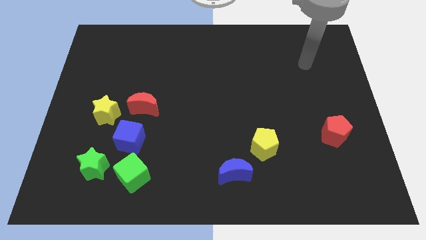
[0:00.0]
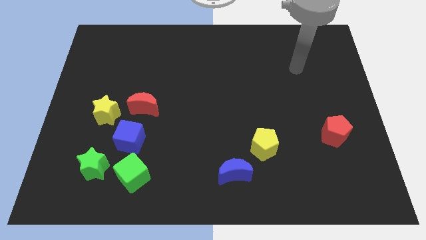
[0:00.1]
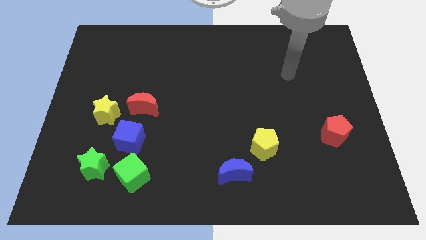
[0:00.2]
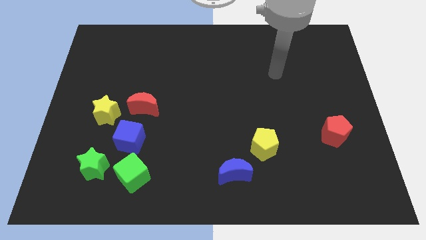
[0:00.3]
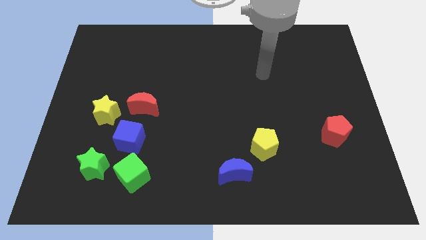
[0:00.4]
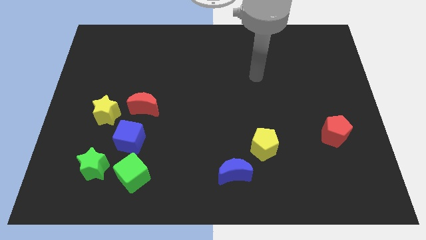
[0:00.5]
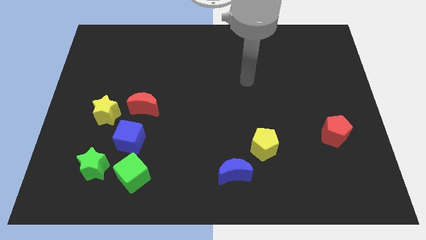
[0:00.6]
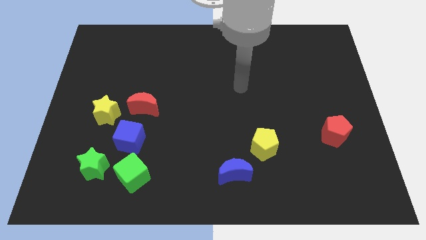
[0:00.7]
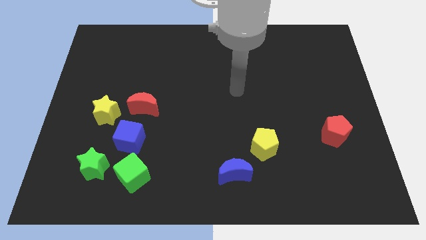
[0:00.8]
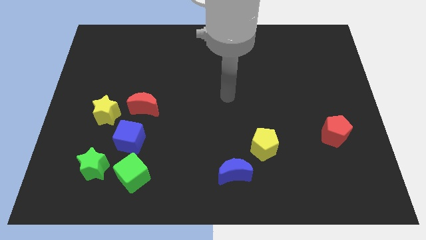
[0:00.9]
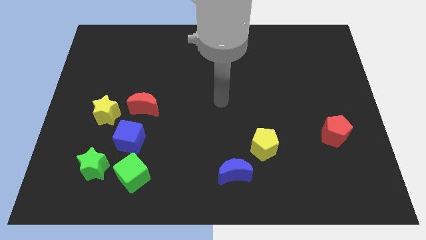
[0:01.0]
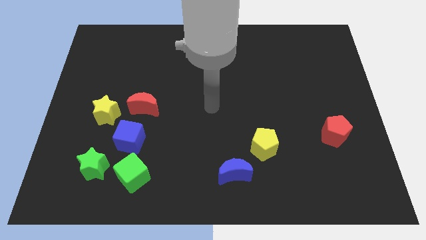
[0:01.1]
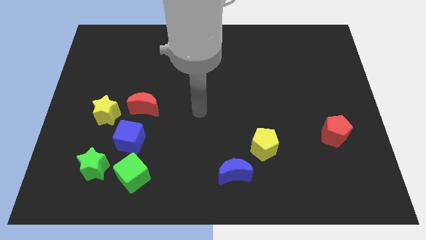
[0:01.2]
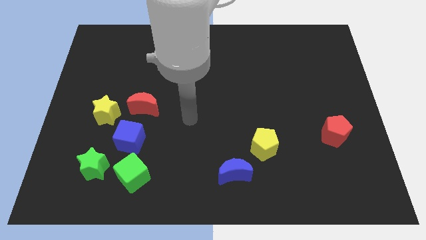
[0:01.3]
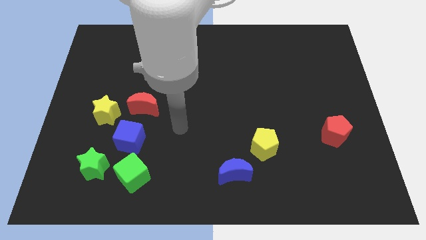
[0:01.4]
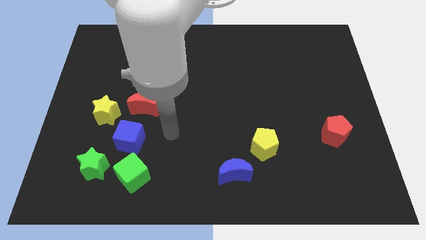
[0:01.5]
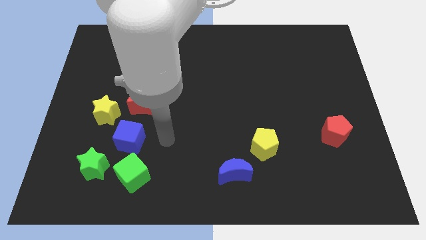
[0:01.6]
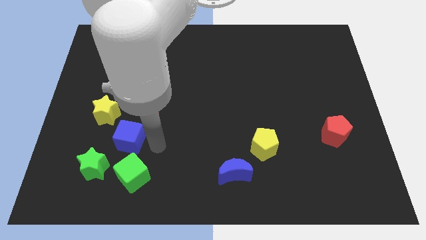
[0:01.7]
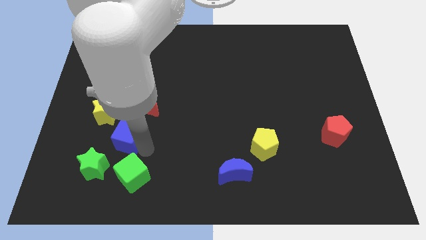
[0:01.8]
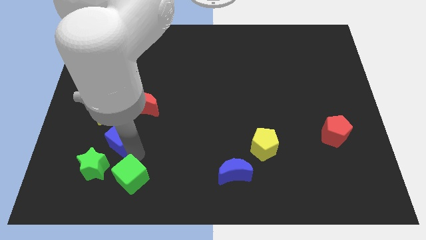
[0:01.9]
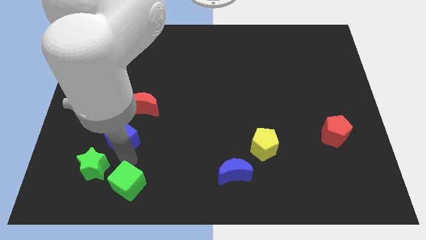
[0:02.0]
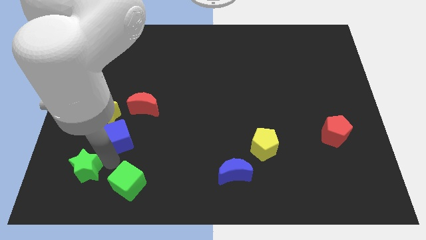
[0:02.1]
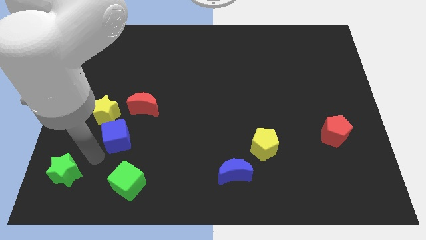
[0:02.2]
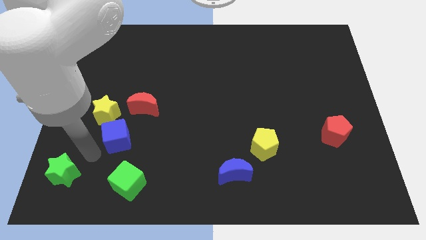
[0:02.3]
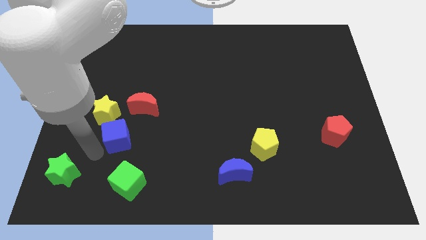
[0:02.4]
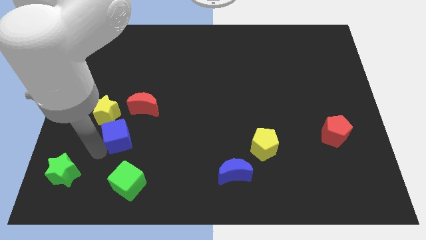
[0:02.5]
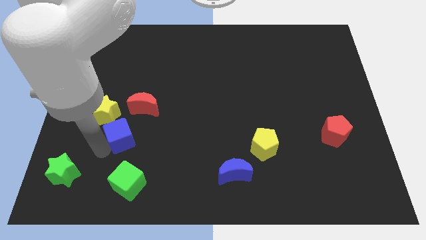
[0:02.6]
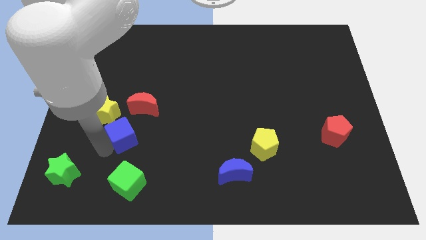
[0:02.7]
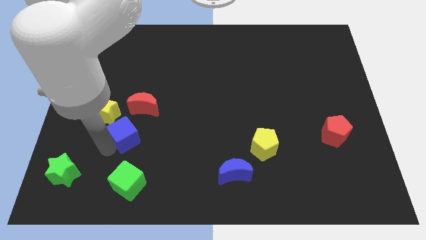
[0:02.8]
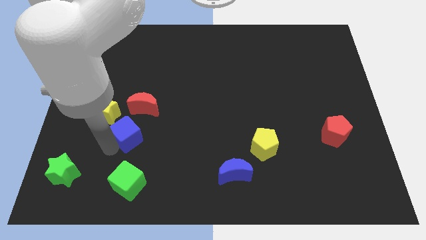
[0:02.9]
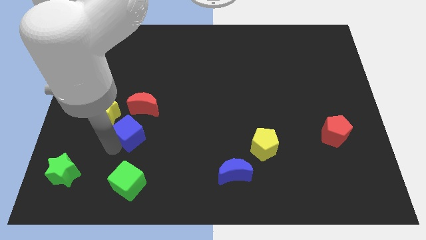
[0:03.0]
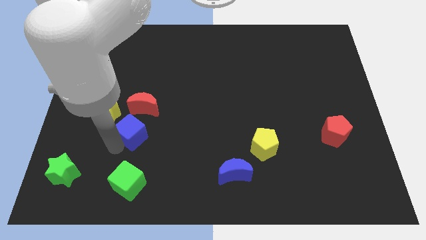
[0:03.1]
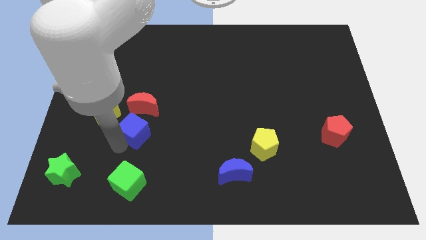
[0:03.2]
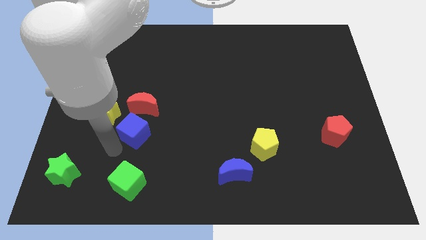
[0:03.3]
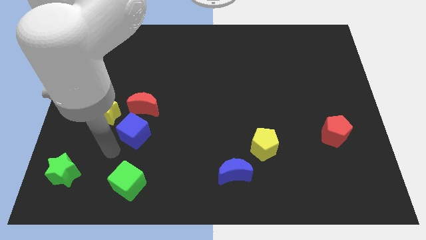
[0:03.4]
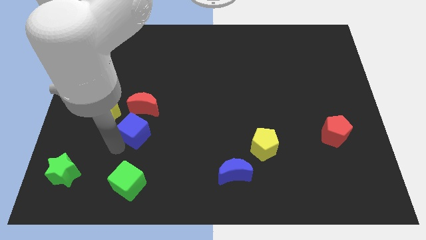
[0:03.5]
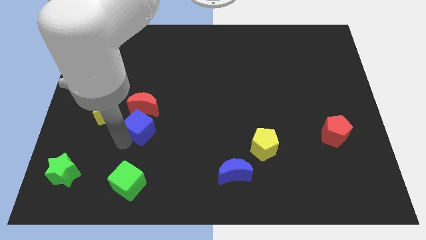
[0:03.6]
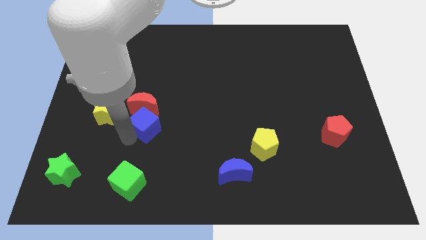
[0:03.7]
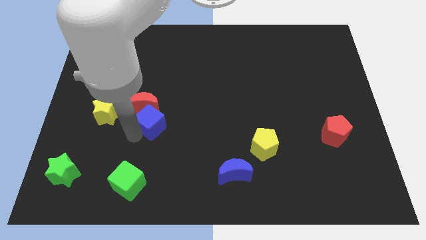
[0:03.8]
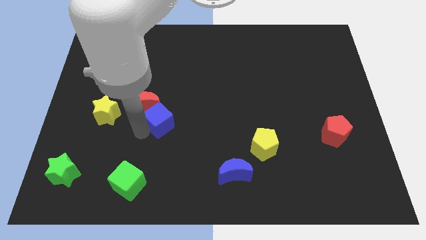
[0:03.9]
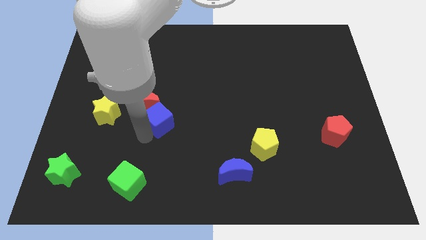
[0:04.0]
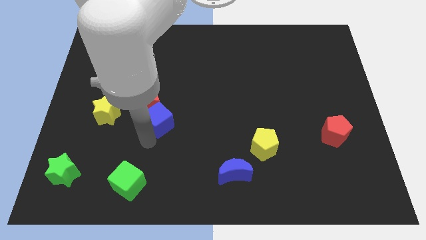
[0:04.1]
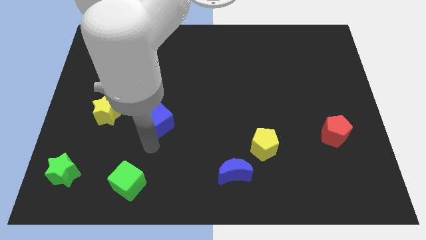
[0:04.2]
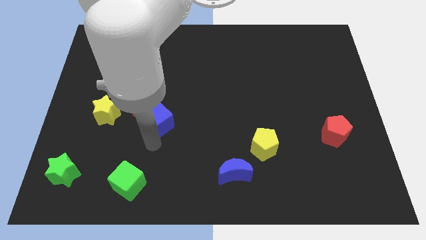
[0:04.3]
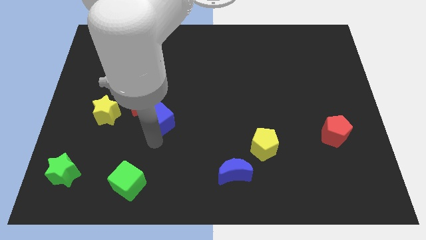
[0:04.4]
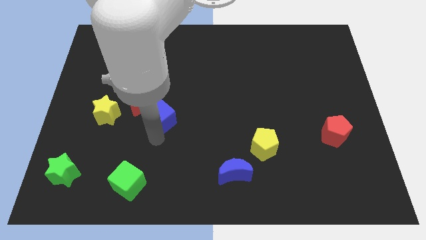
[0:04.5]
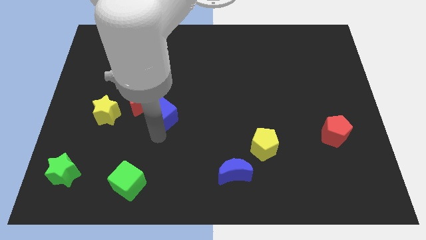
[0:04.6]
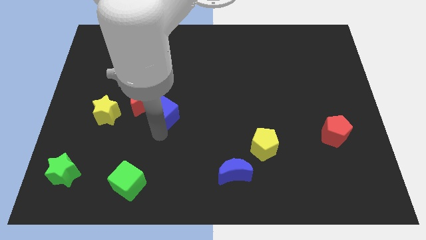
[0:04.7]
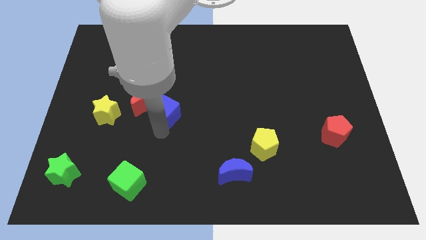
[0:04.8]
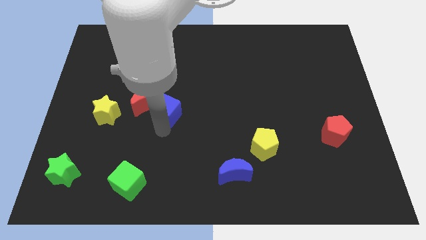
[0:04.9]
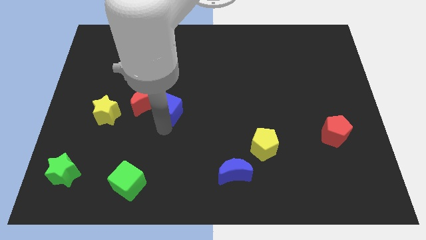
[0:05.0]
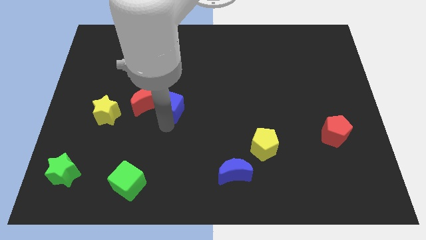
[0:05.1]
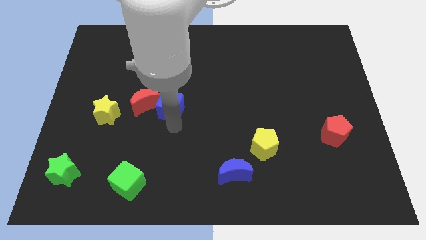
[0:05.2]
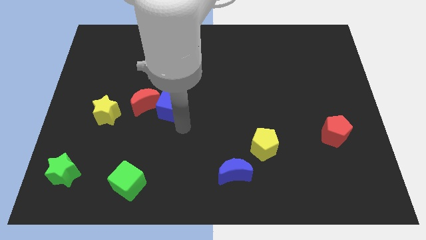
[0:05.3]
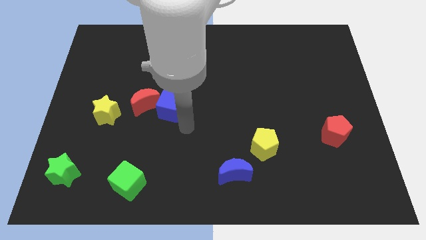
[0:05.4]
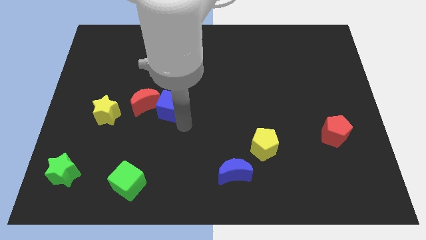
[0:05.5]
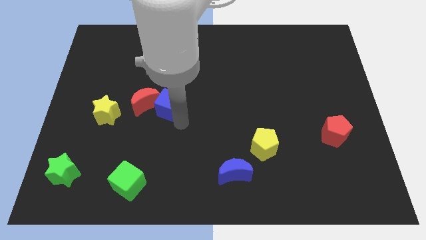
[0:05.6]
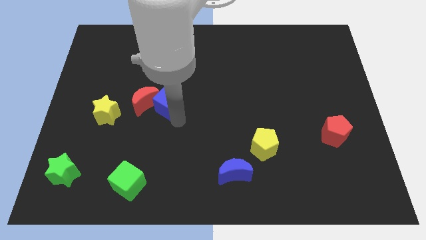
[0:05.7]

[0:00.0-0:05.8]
move the blue cube a little upwards

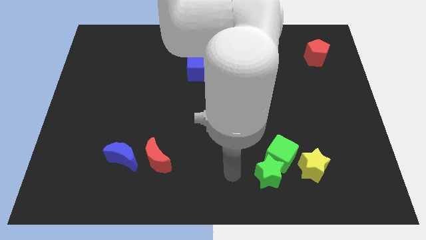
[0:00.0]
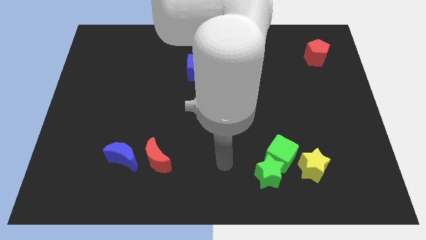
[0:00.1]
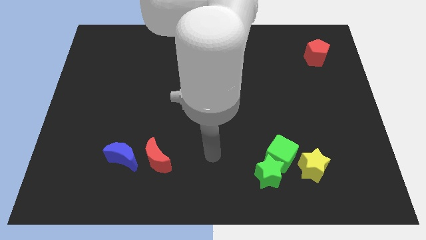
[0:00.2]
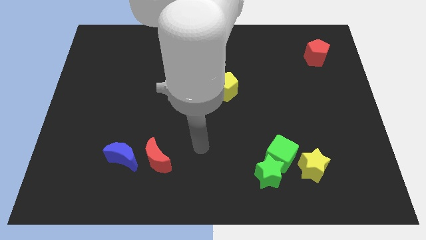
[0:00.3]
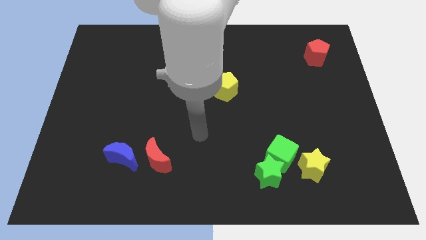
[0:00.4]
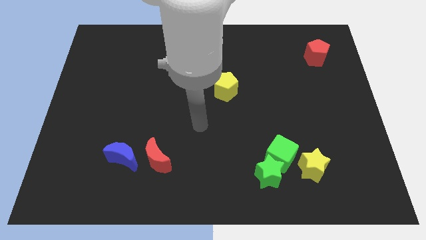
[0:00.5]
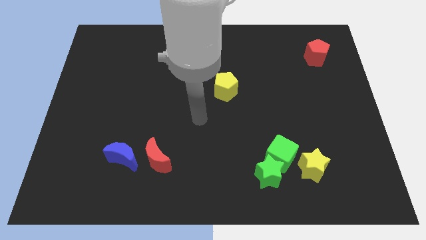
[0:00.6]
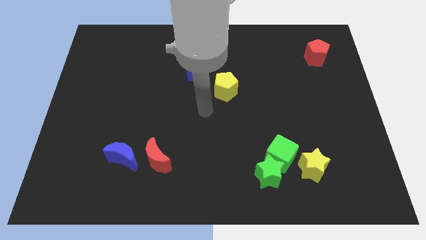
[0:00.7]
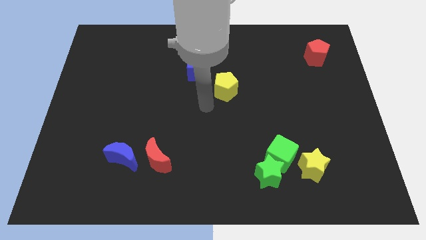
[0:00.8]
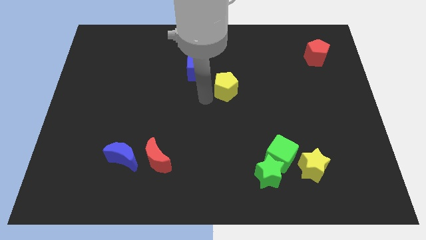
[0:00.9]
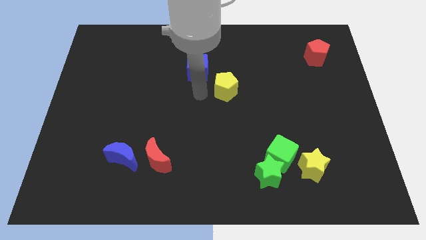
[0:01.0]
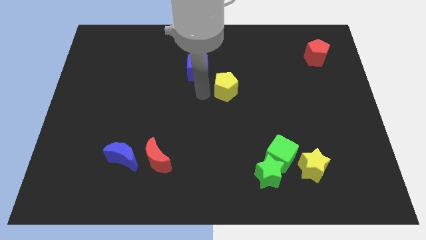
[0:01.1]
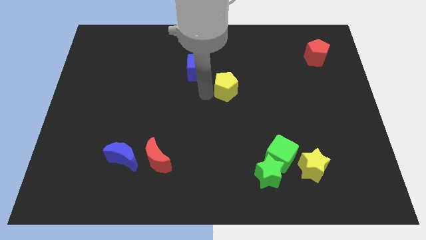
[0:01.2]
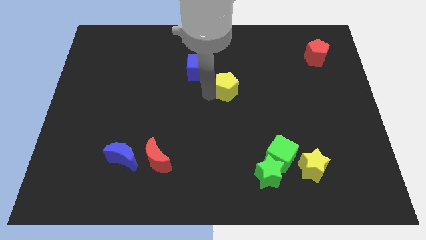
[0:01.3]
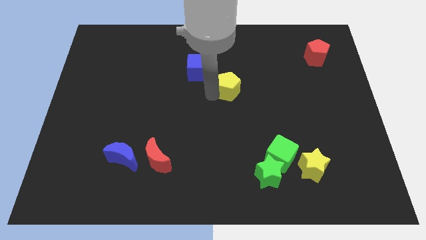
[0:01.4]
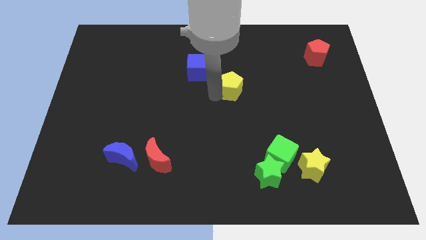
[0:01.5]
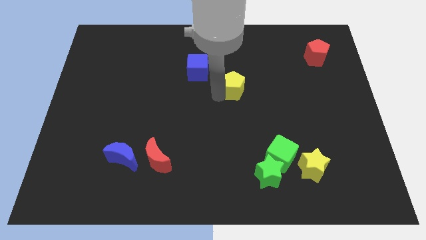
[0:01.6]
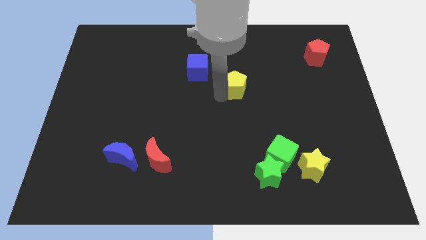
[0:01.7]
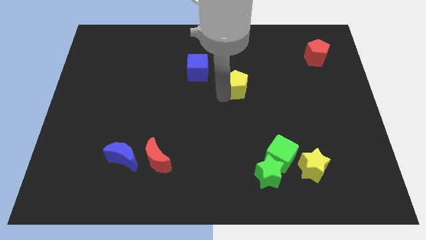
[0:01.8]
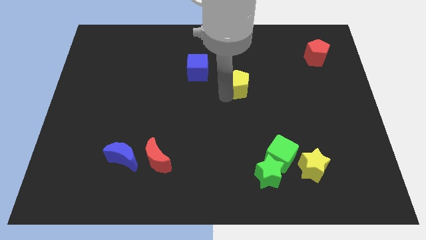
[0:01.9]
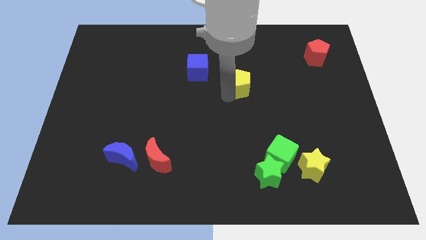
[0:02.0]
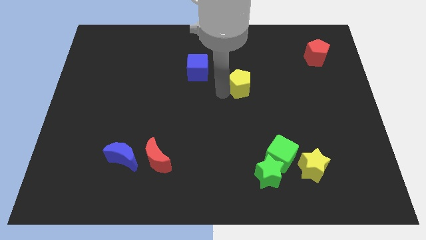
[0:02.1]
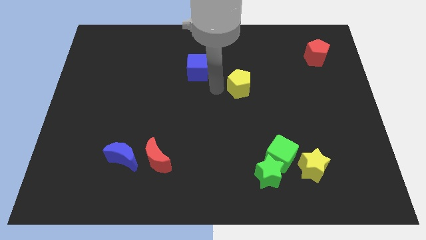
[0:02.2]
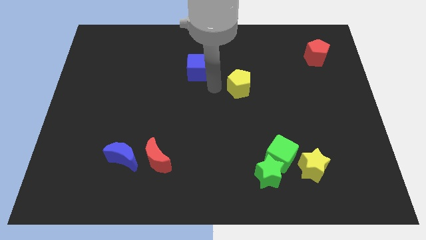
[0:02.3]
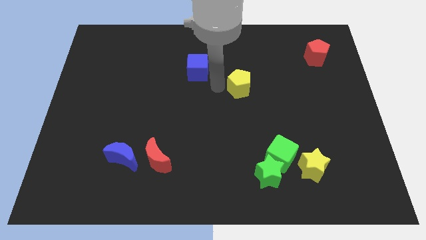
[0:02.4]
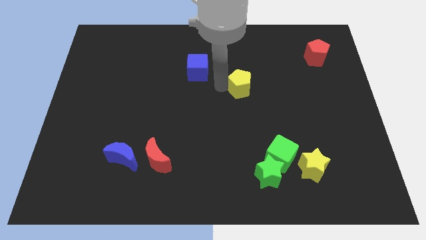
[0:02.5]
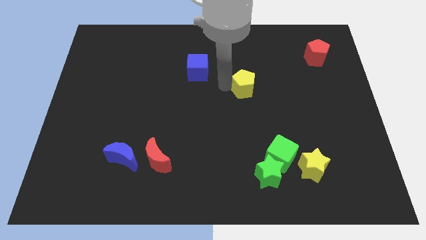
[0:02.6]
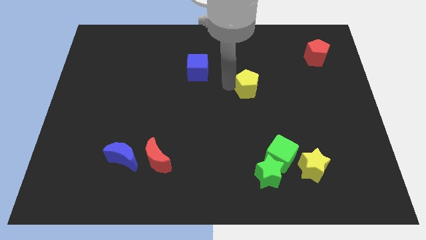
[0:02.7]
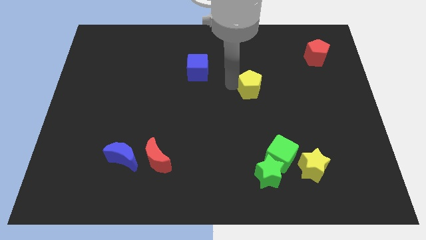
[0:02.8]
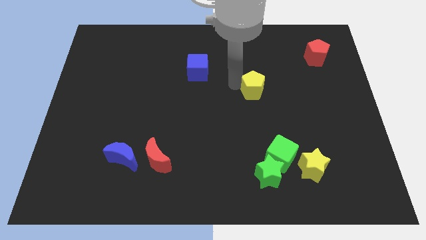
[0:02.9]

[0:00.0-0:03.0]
move the yellow pentagon a little bit right
